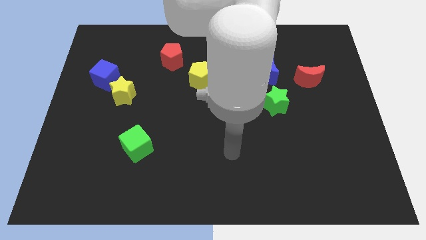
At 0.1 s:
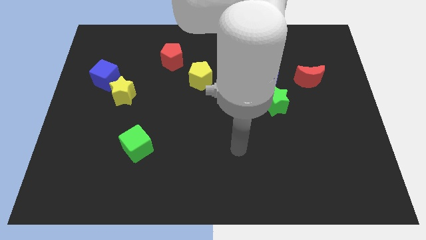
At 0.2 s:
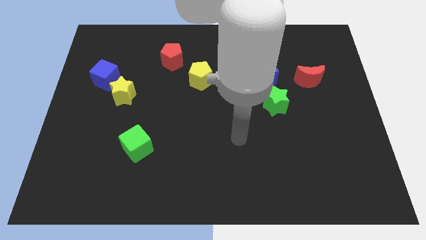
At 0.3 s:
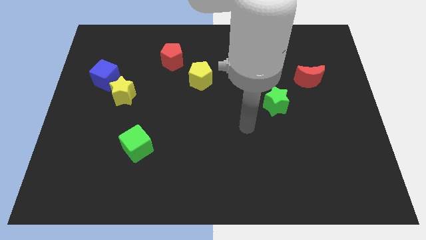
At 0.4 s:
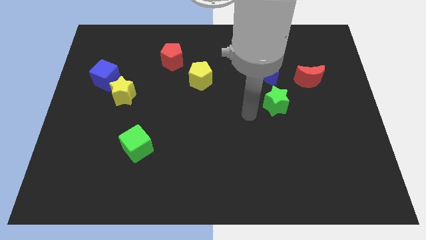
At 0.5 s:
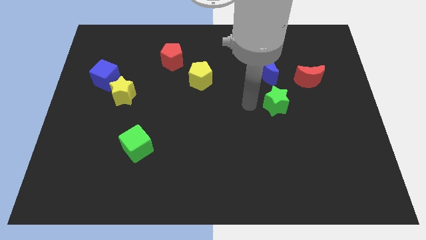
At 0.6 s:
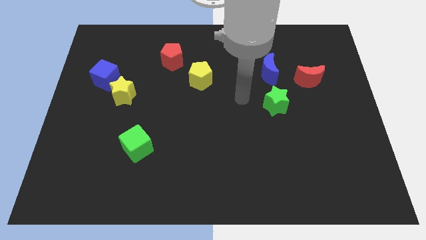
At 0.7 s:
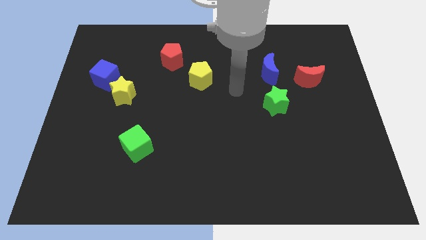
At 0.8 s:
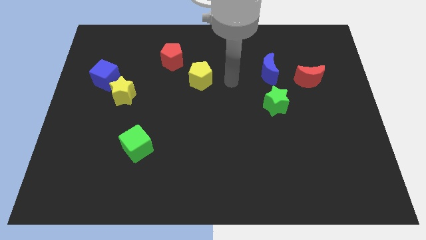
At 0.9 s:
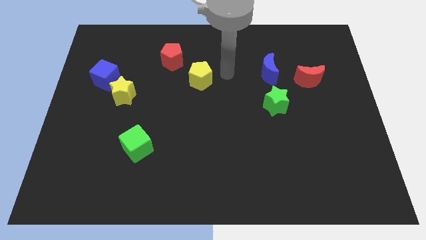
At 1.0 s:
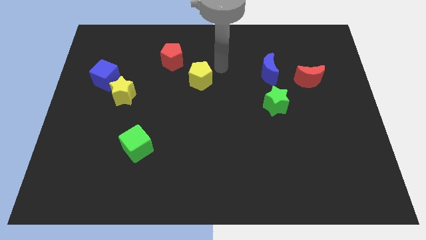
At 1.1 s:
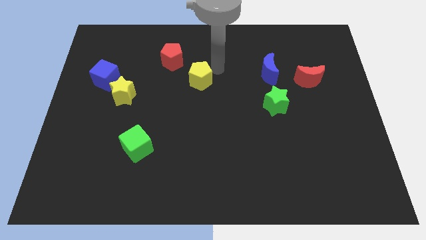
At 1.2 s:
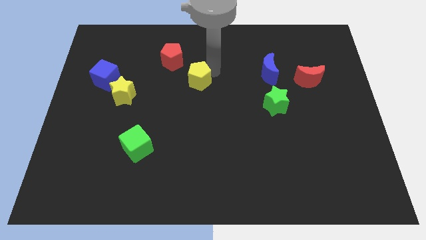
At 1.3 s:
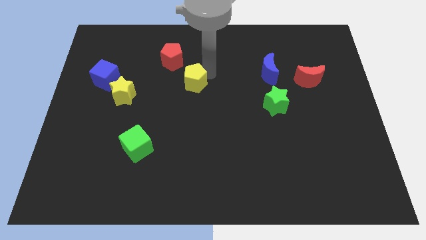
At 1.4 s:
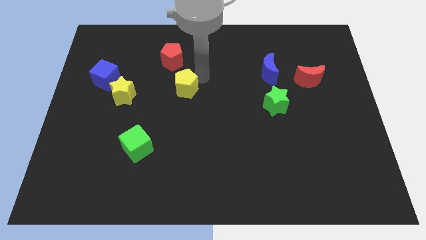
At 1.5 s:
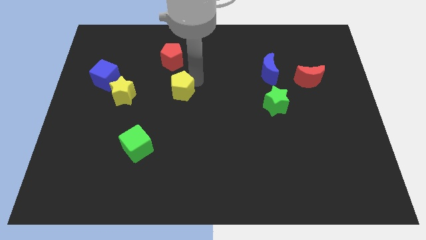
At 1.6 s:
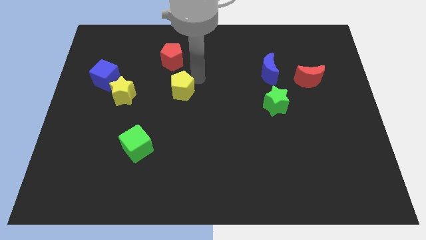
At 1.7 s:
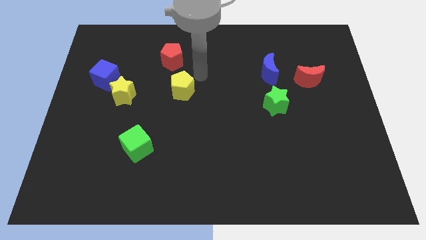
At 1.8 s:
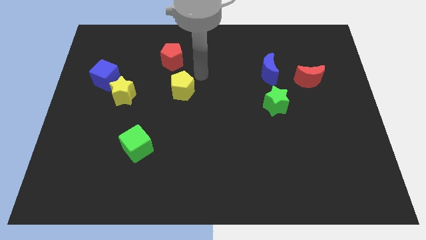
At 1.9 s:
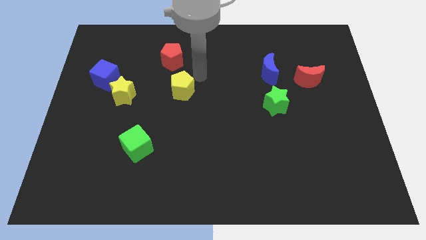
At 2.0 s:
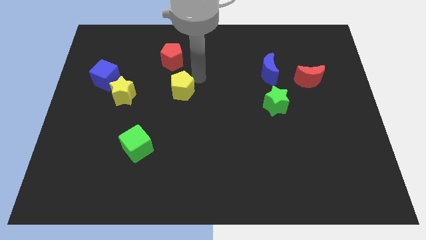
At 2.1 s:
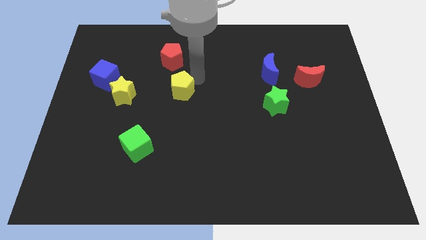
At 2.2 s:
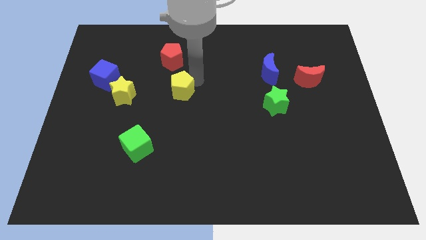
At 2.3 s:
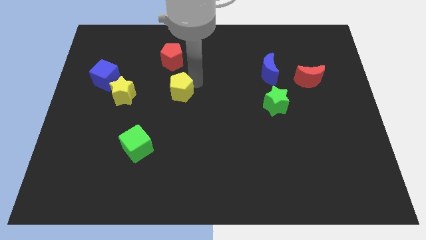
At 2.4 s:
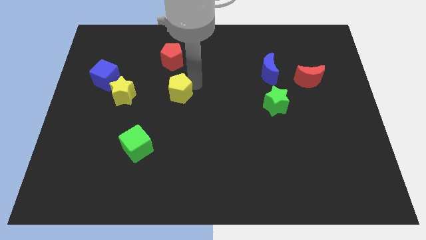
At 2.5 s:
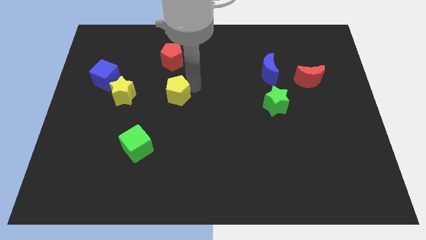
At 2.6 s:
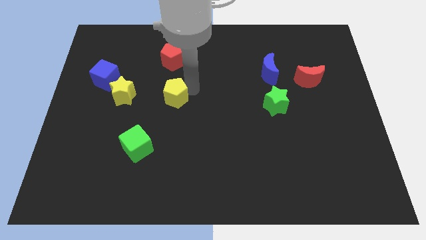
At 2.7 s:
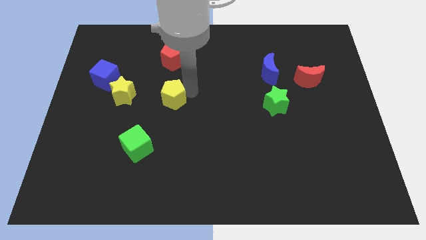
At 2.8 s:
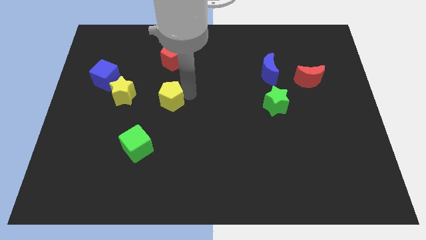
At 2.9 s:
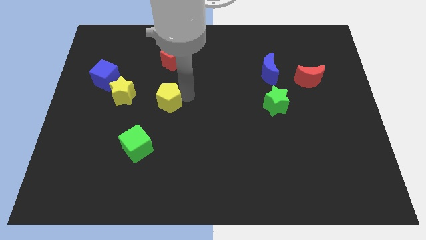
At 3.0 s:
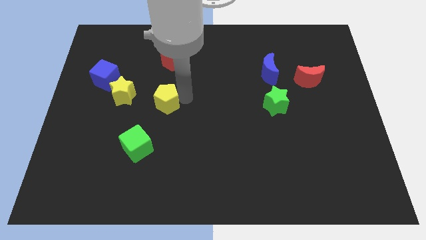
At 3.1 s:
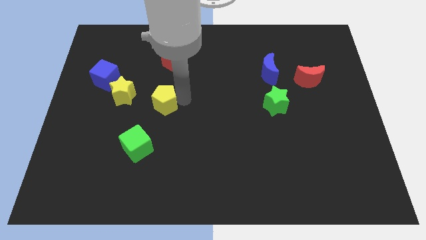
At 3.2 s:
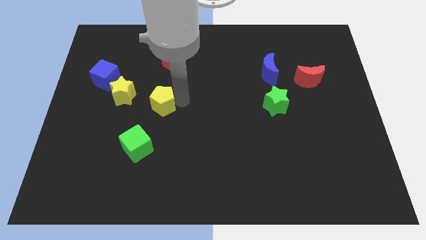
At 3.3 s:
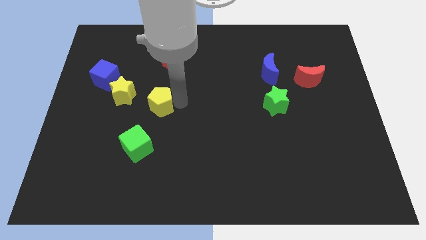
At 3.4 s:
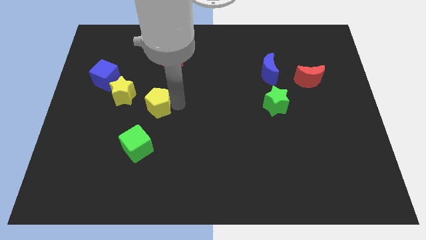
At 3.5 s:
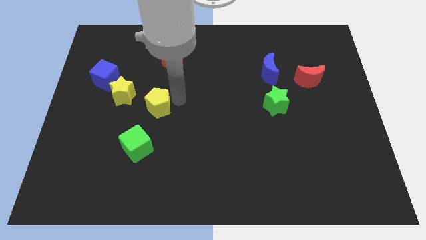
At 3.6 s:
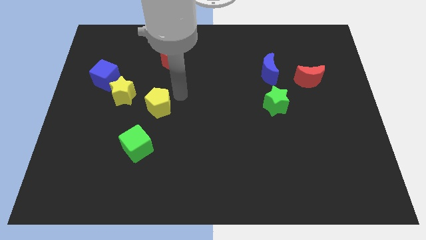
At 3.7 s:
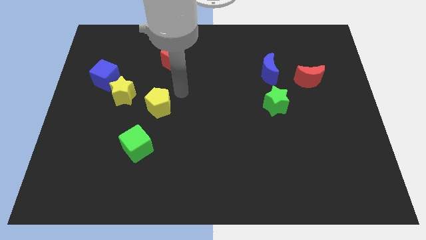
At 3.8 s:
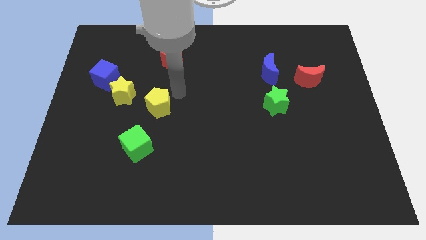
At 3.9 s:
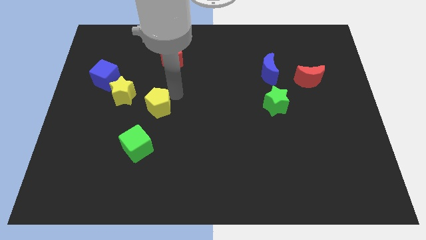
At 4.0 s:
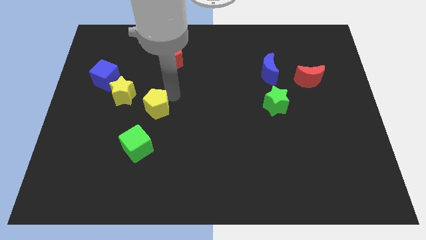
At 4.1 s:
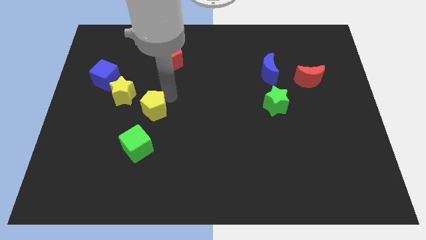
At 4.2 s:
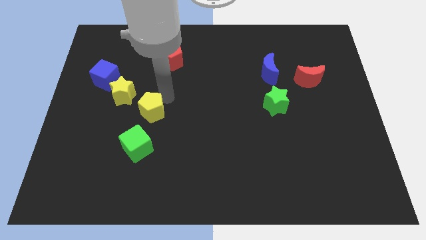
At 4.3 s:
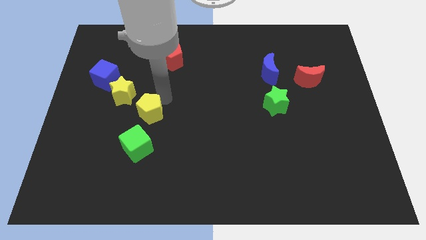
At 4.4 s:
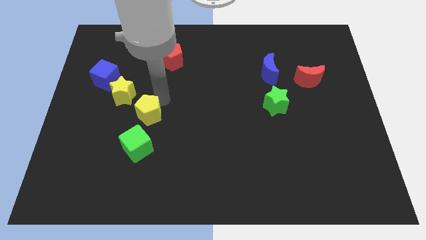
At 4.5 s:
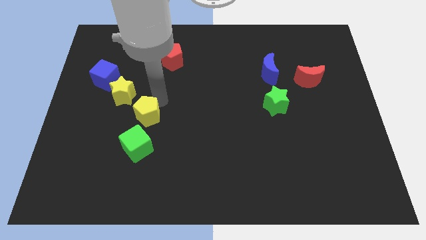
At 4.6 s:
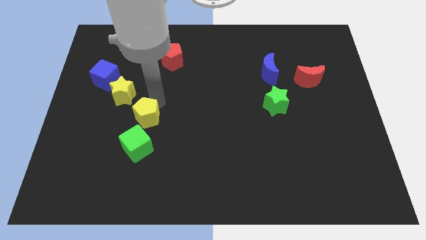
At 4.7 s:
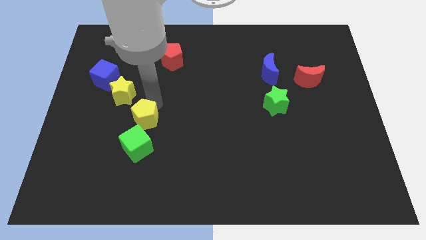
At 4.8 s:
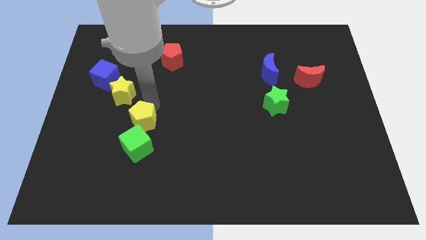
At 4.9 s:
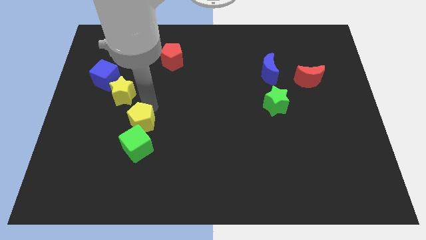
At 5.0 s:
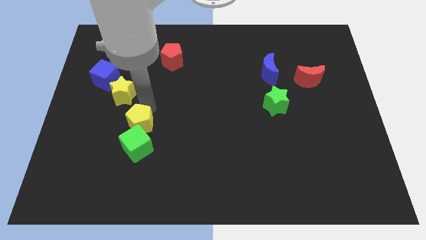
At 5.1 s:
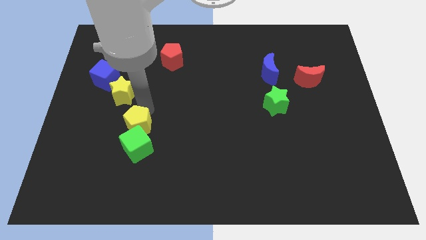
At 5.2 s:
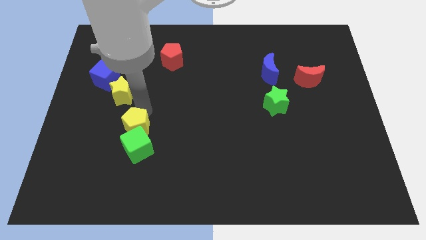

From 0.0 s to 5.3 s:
push the yellow pentagon diagonally down and left

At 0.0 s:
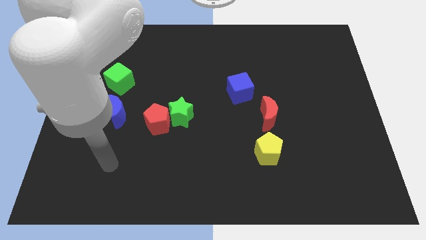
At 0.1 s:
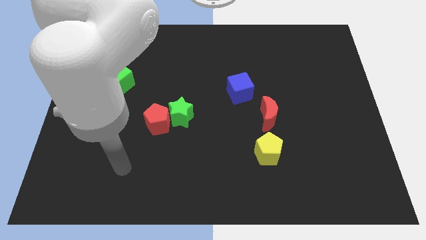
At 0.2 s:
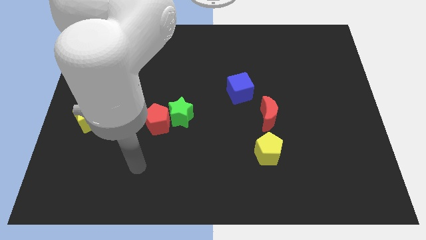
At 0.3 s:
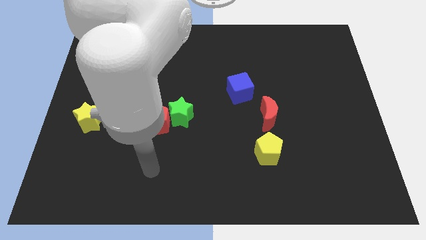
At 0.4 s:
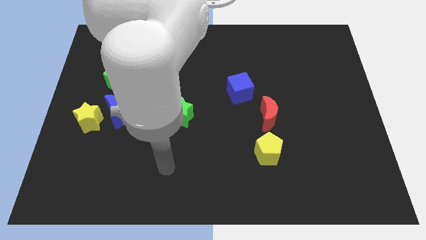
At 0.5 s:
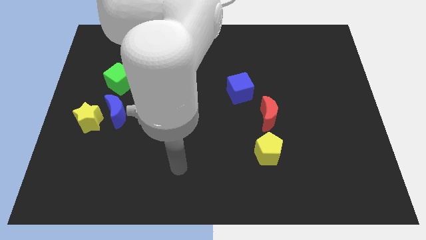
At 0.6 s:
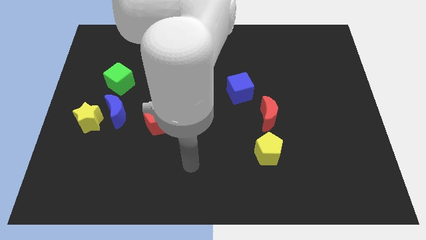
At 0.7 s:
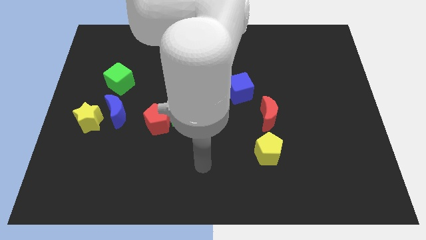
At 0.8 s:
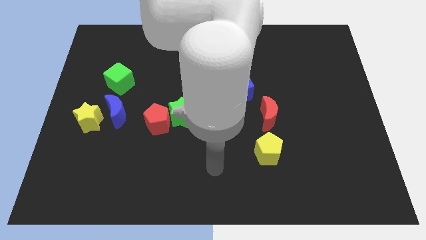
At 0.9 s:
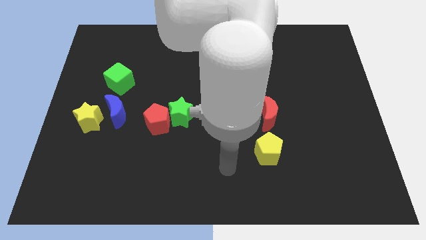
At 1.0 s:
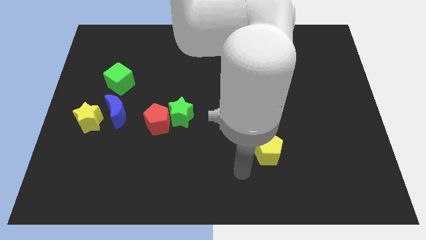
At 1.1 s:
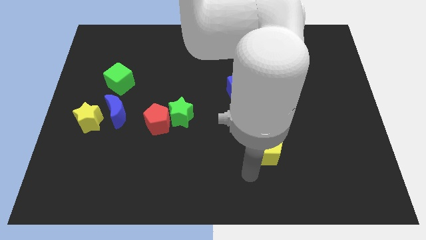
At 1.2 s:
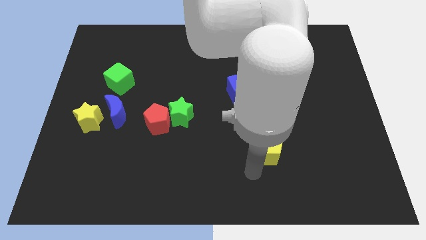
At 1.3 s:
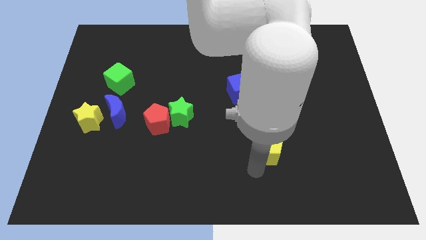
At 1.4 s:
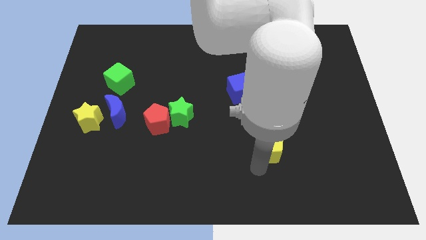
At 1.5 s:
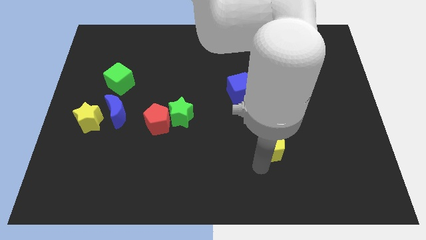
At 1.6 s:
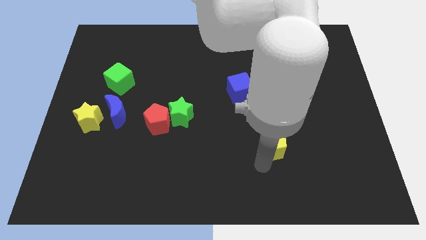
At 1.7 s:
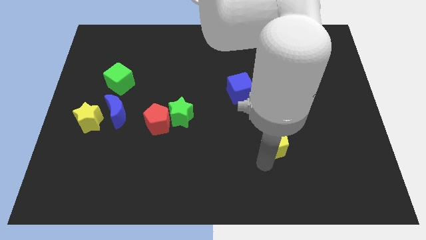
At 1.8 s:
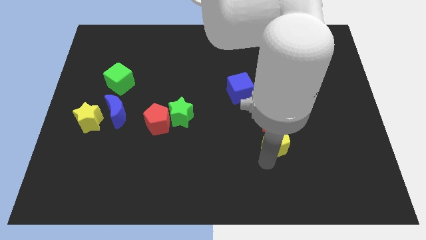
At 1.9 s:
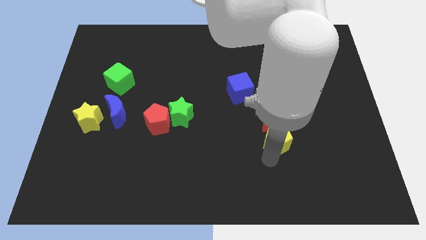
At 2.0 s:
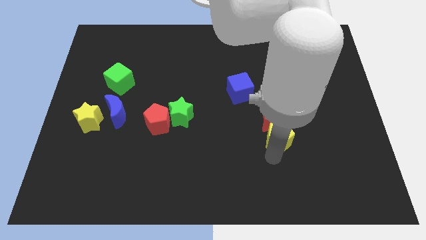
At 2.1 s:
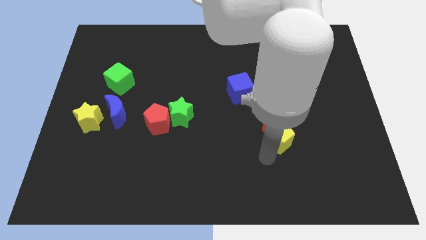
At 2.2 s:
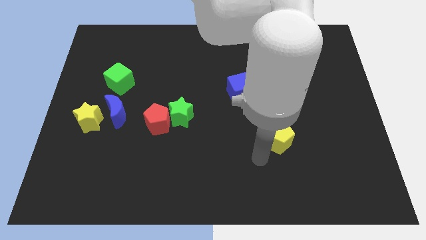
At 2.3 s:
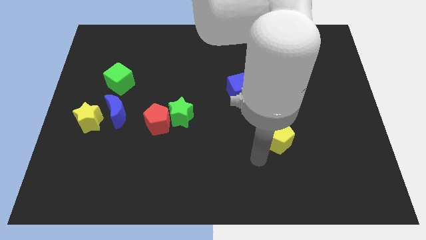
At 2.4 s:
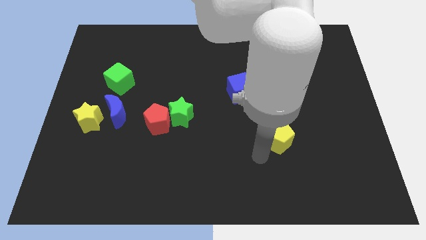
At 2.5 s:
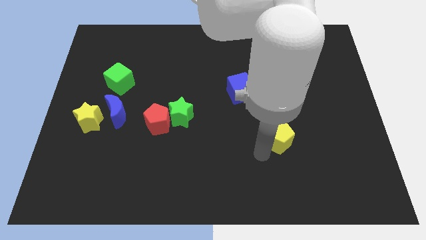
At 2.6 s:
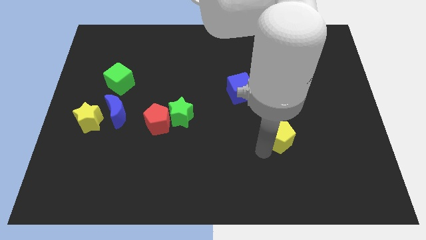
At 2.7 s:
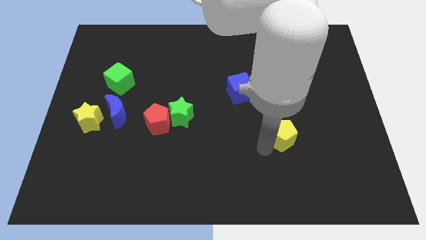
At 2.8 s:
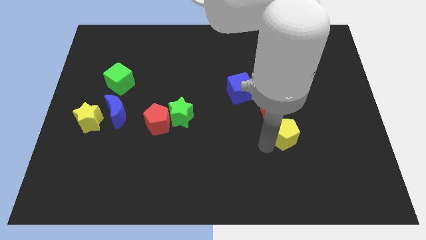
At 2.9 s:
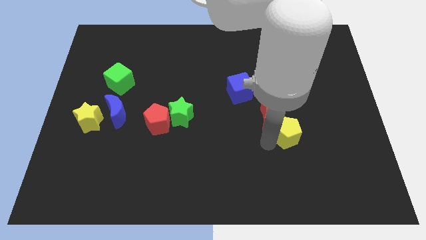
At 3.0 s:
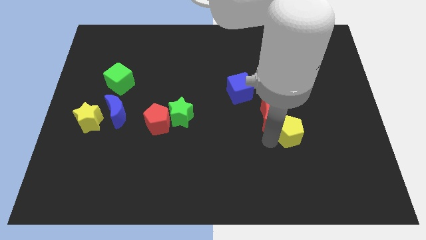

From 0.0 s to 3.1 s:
slide the yellow pentagon upwards and to the right diagonally a bit

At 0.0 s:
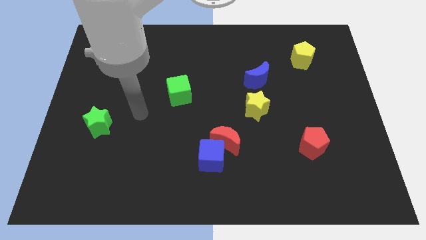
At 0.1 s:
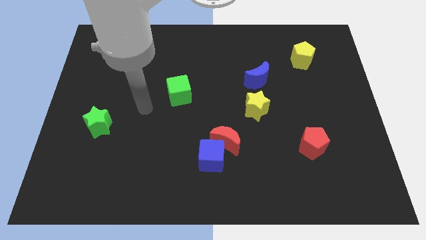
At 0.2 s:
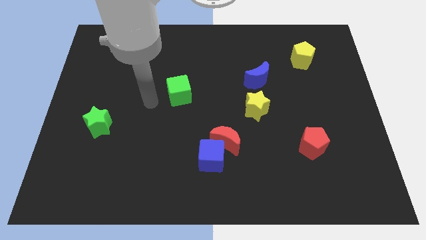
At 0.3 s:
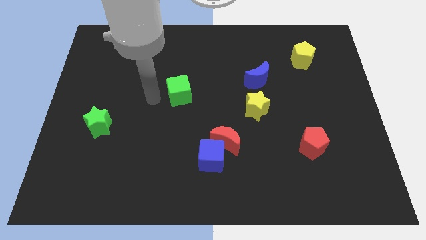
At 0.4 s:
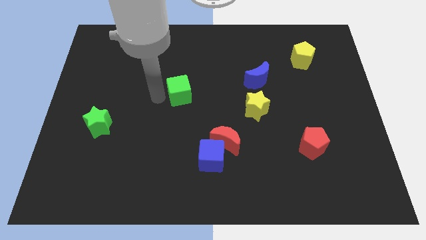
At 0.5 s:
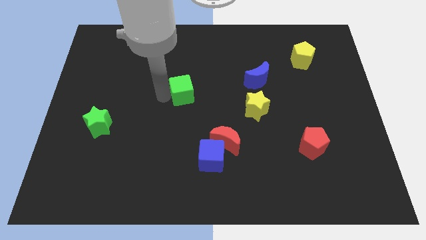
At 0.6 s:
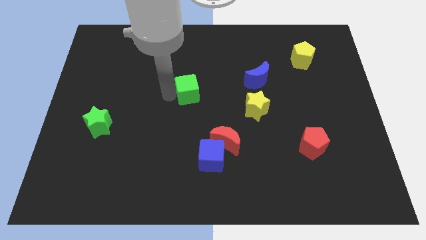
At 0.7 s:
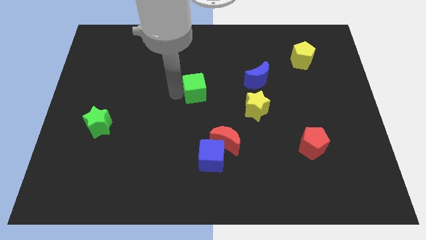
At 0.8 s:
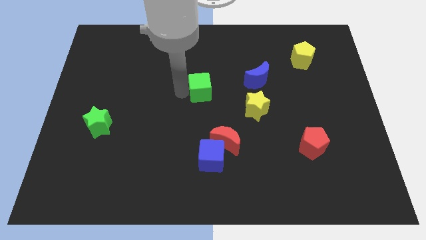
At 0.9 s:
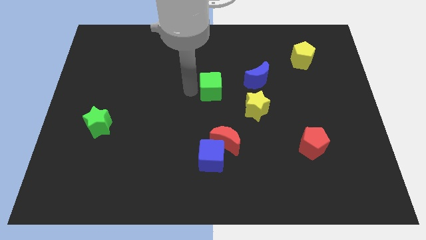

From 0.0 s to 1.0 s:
slide the green cube a bit to the right
